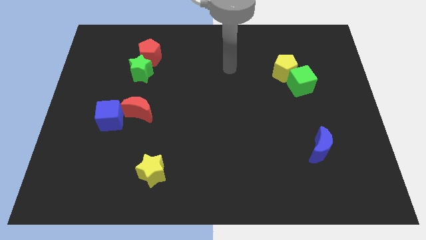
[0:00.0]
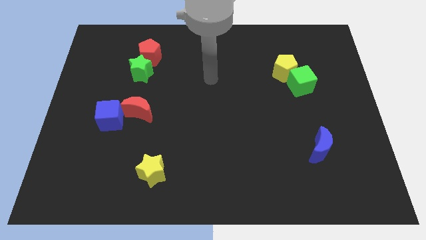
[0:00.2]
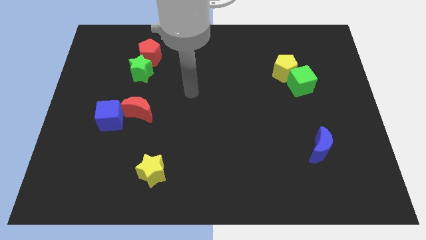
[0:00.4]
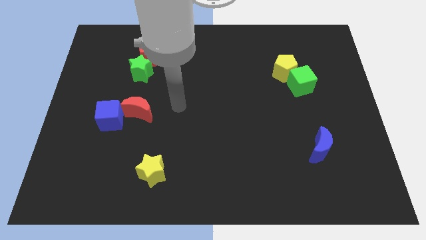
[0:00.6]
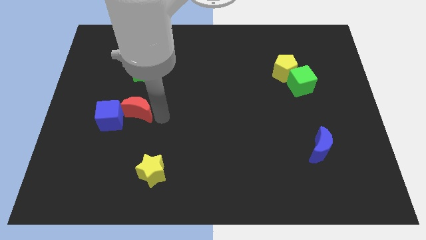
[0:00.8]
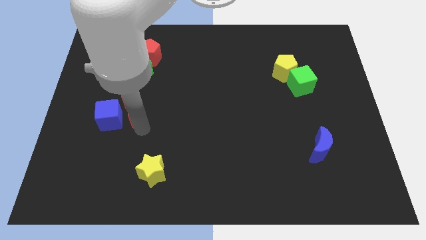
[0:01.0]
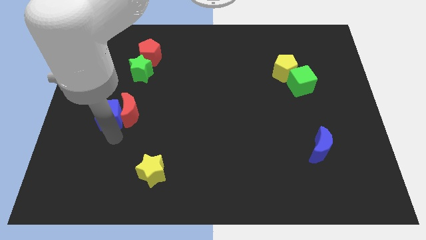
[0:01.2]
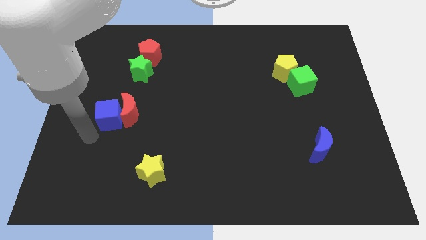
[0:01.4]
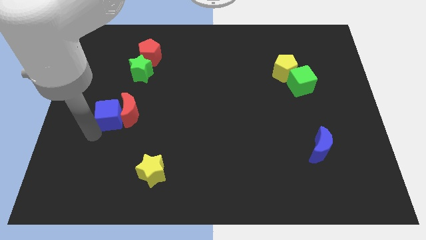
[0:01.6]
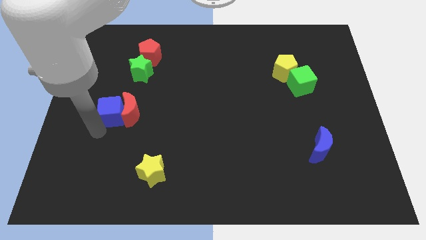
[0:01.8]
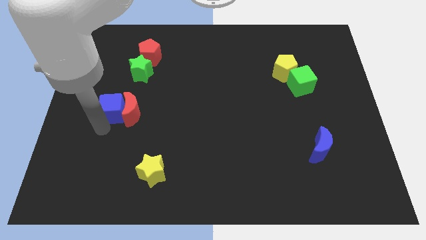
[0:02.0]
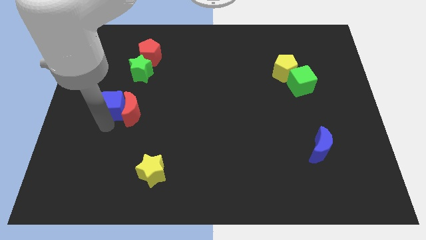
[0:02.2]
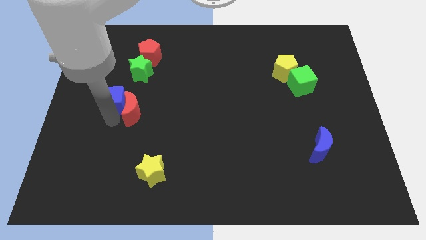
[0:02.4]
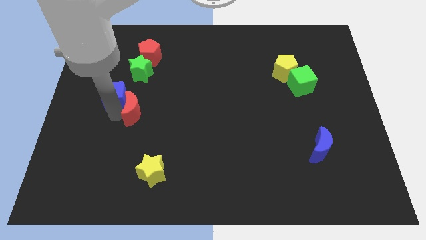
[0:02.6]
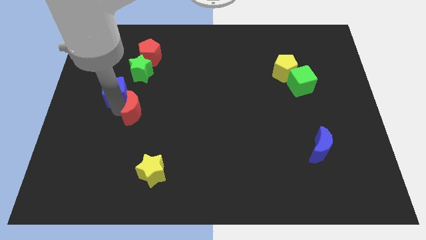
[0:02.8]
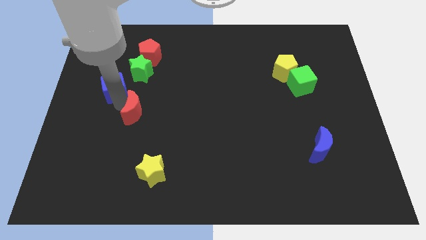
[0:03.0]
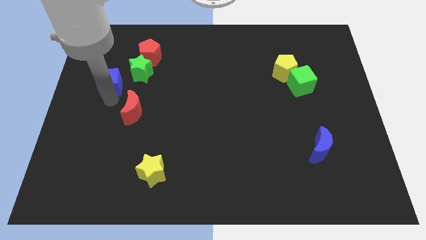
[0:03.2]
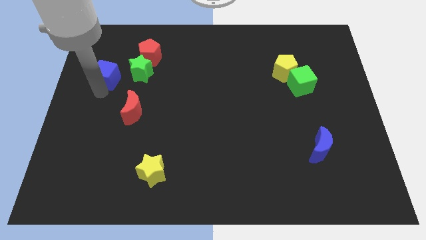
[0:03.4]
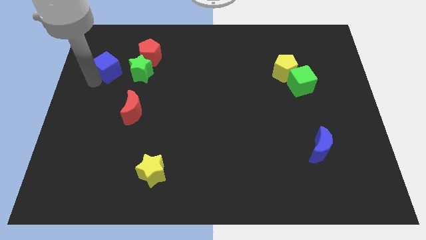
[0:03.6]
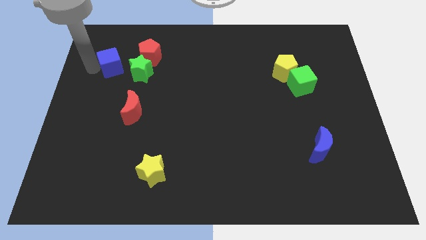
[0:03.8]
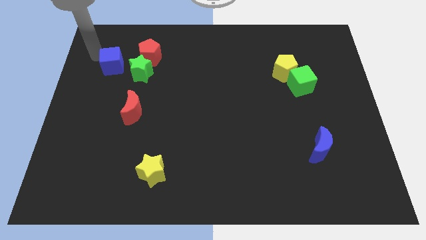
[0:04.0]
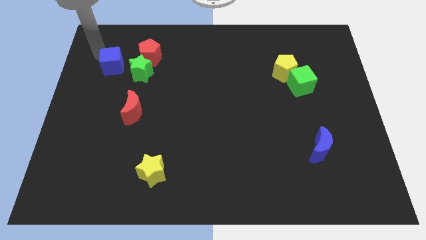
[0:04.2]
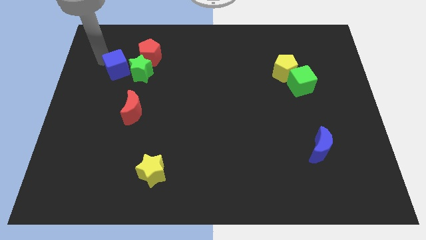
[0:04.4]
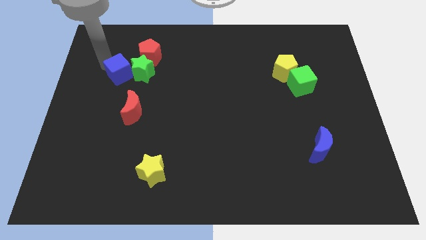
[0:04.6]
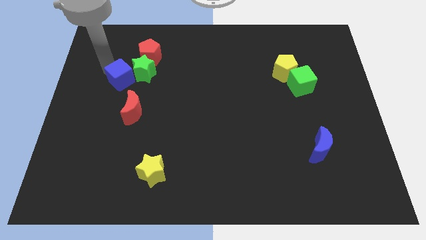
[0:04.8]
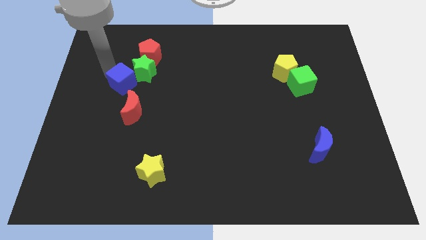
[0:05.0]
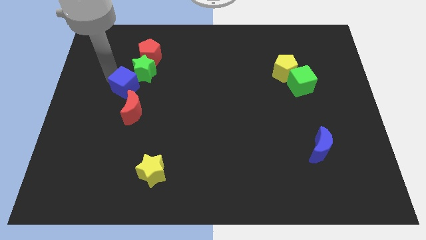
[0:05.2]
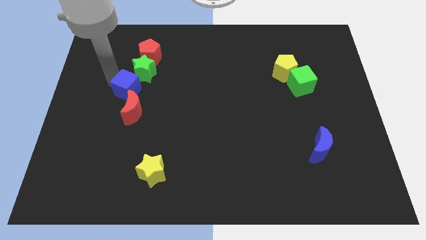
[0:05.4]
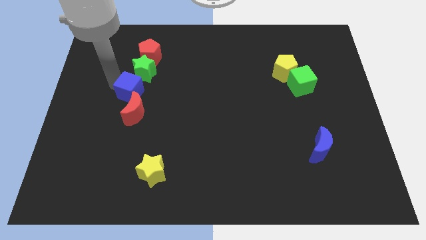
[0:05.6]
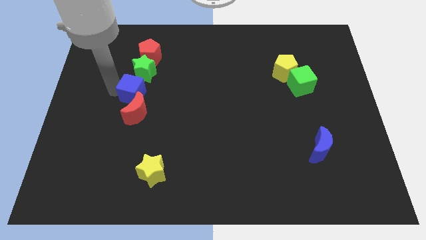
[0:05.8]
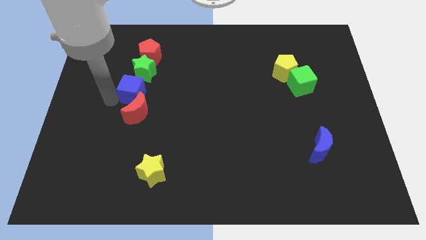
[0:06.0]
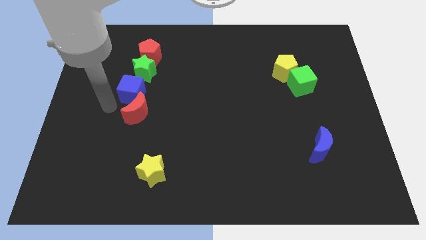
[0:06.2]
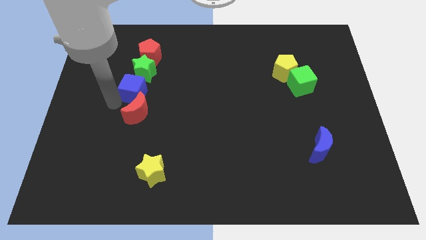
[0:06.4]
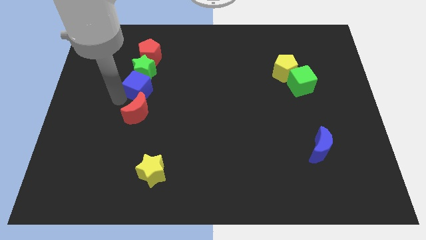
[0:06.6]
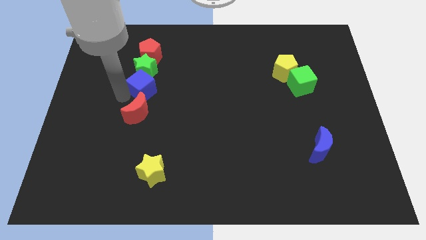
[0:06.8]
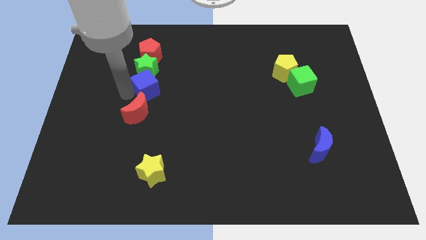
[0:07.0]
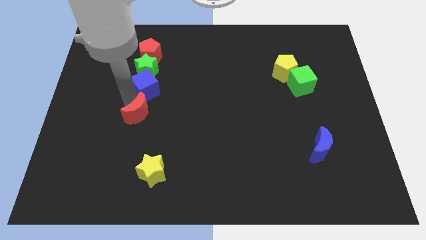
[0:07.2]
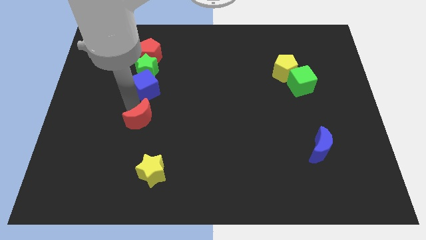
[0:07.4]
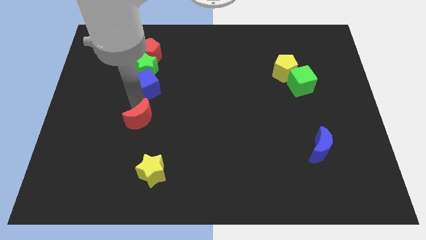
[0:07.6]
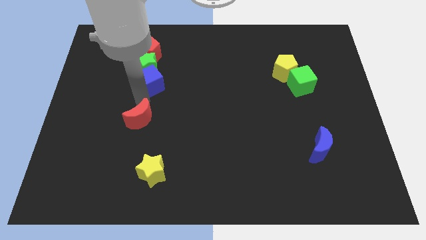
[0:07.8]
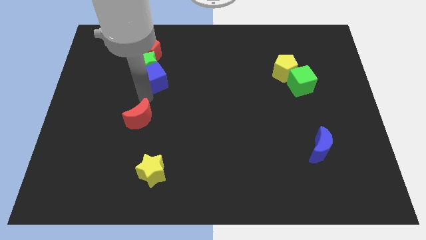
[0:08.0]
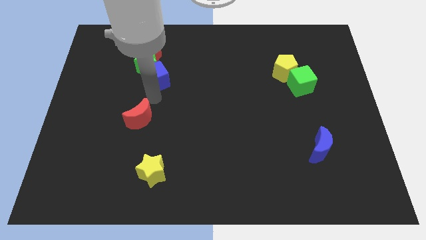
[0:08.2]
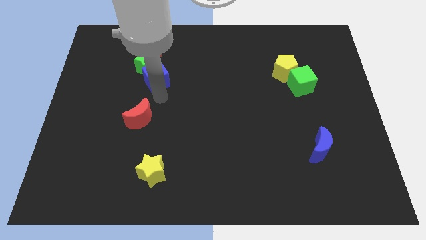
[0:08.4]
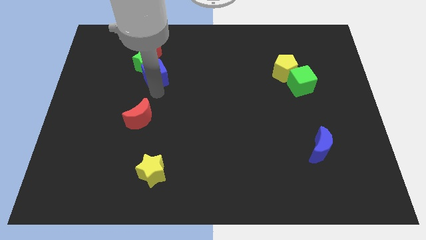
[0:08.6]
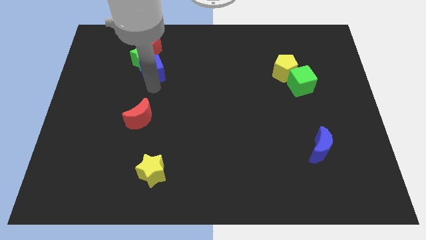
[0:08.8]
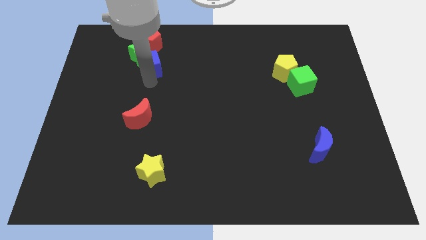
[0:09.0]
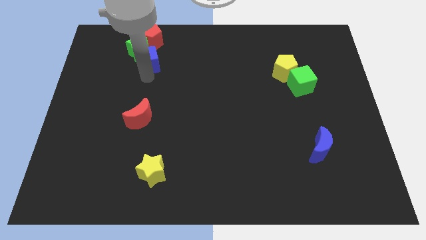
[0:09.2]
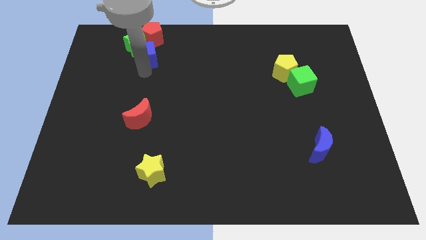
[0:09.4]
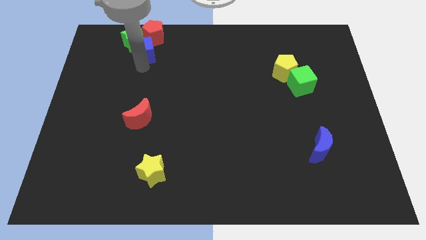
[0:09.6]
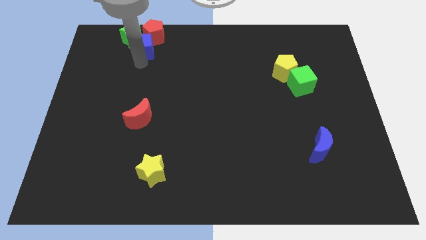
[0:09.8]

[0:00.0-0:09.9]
push the blue cube to the red pentagon

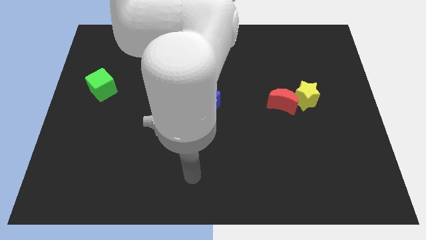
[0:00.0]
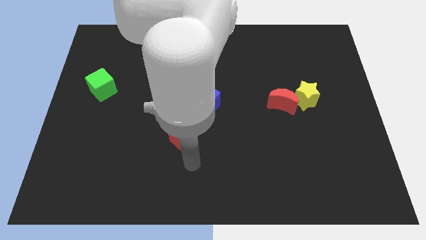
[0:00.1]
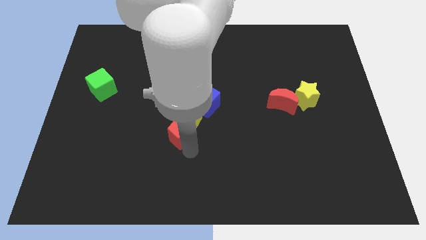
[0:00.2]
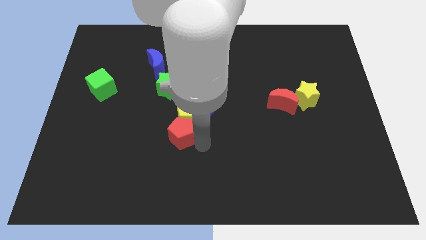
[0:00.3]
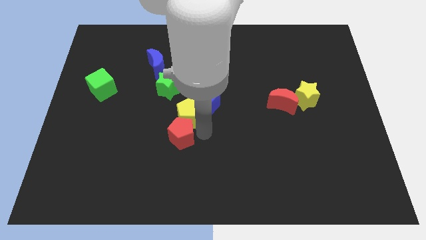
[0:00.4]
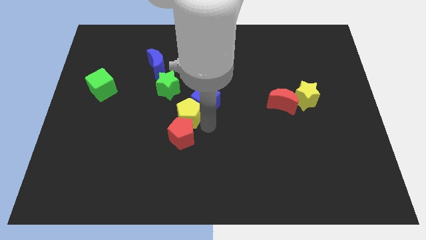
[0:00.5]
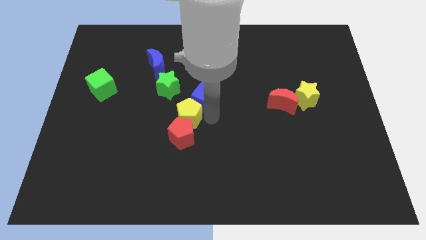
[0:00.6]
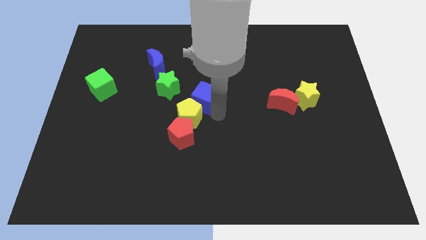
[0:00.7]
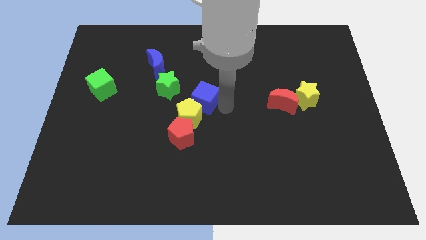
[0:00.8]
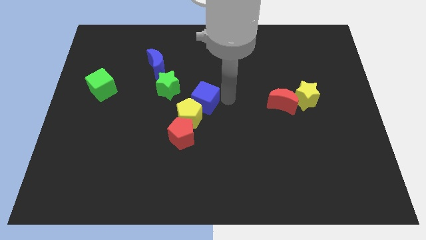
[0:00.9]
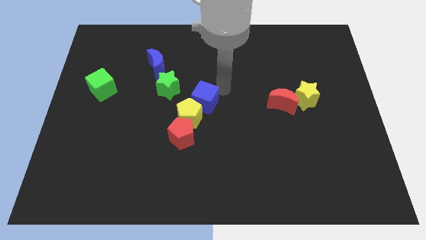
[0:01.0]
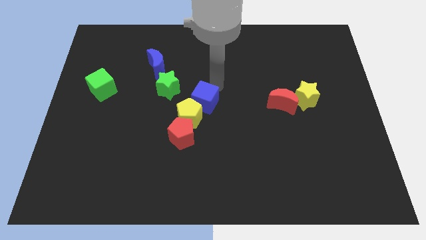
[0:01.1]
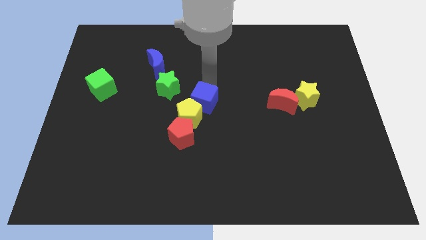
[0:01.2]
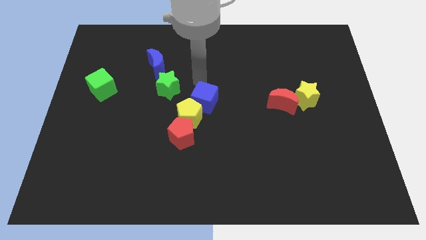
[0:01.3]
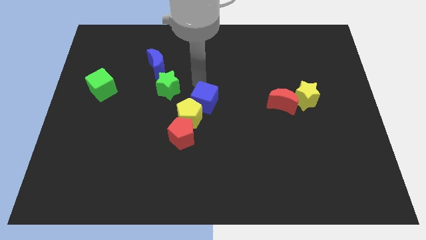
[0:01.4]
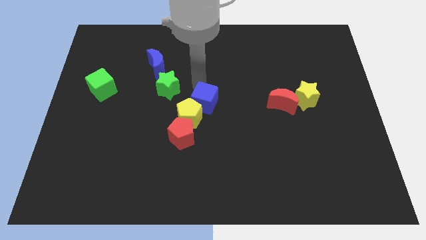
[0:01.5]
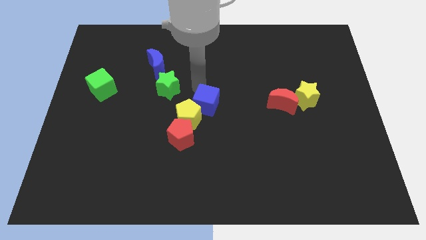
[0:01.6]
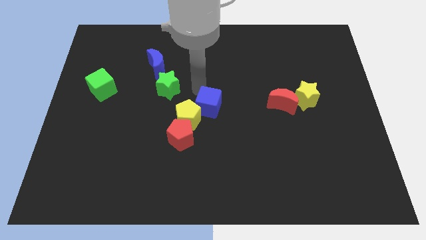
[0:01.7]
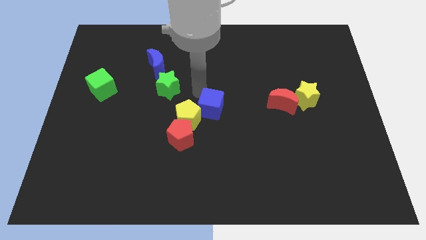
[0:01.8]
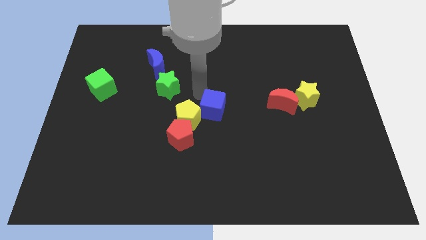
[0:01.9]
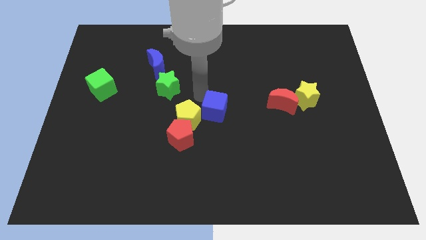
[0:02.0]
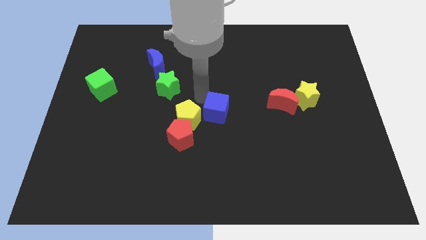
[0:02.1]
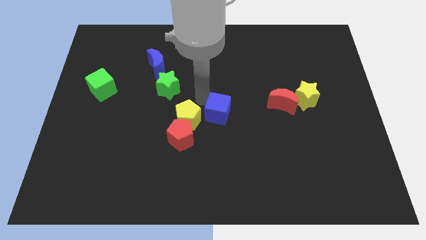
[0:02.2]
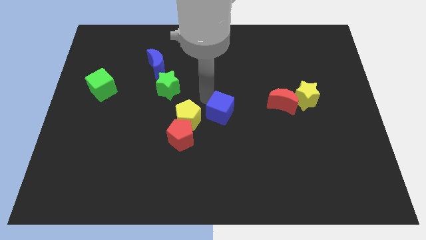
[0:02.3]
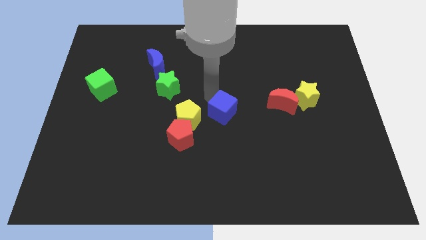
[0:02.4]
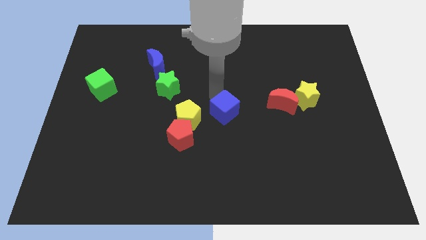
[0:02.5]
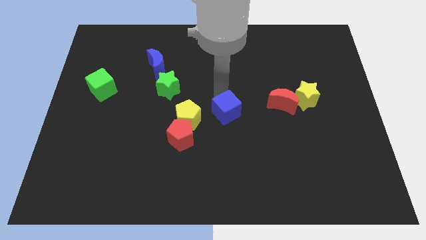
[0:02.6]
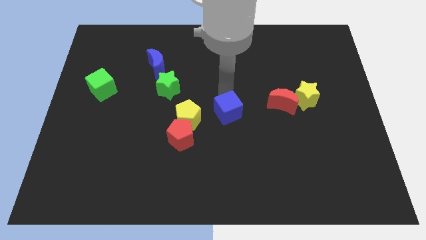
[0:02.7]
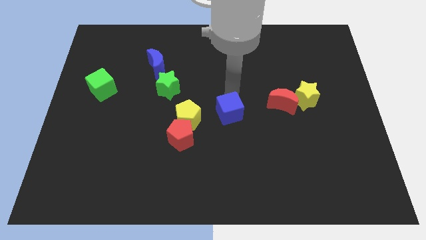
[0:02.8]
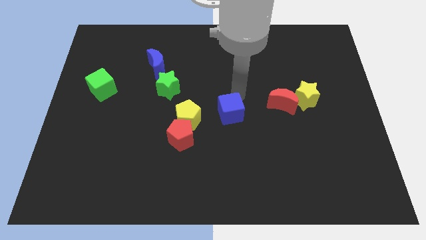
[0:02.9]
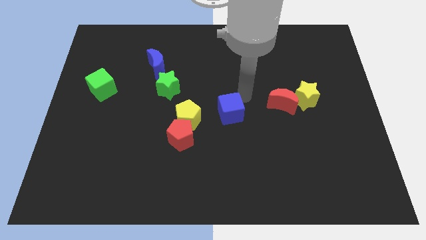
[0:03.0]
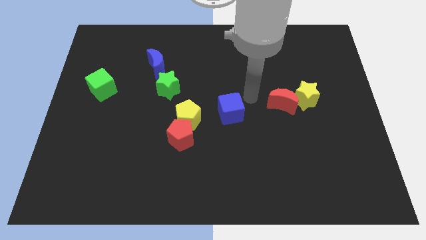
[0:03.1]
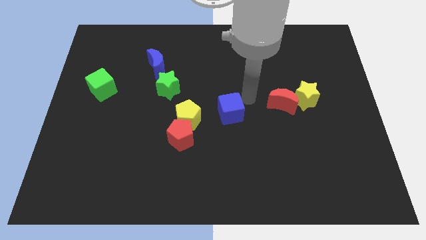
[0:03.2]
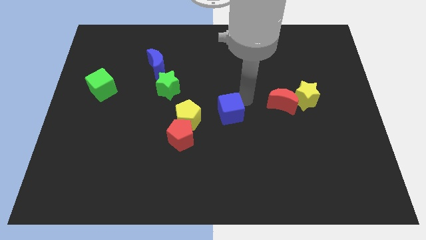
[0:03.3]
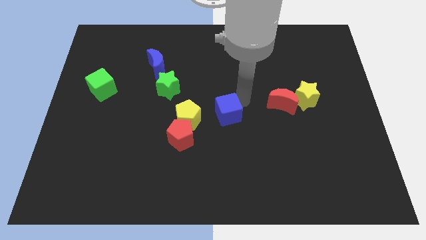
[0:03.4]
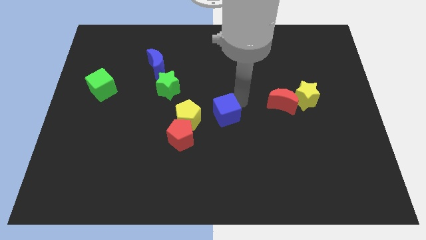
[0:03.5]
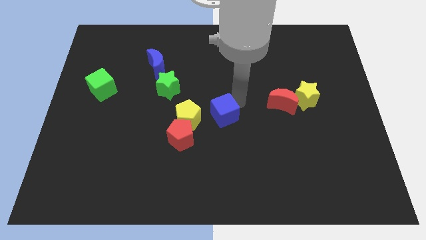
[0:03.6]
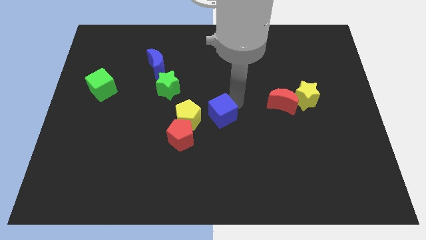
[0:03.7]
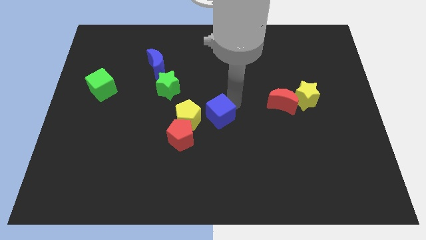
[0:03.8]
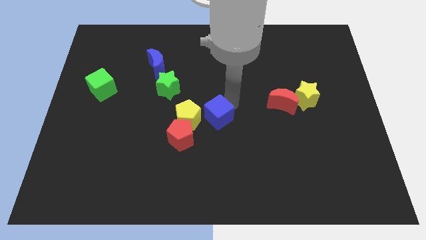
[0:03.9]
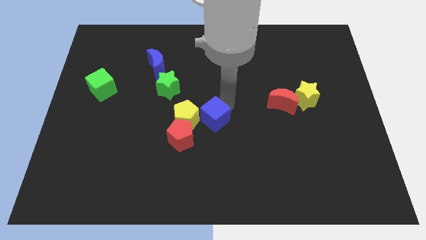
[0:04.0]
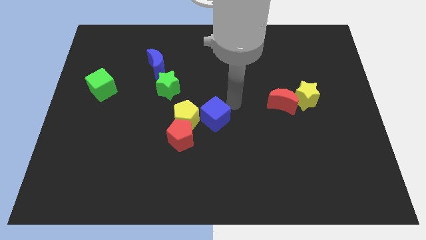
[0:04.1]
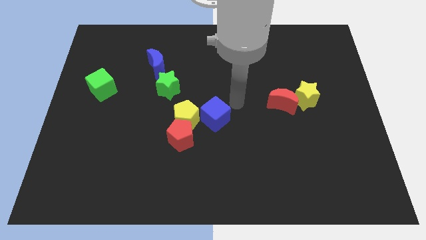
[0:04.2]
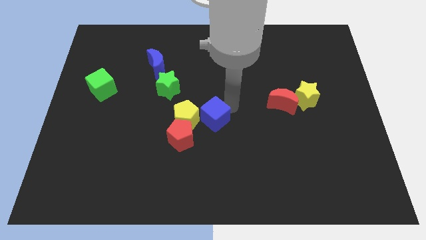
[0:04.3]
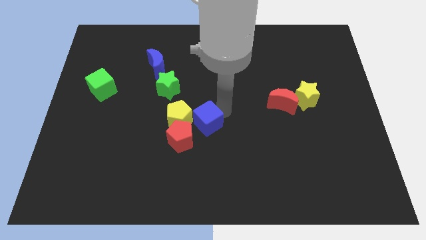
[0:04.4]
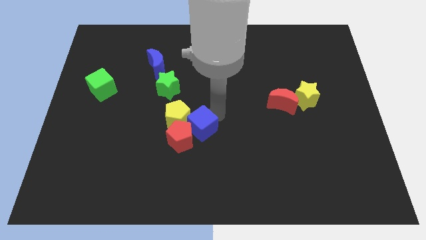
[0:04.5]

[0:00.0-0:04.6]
put the blue cube to the red pentagon
